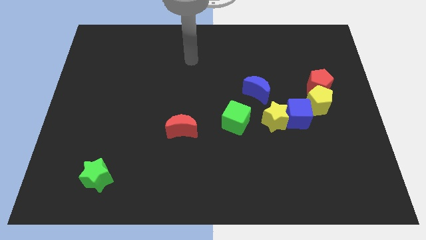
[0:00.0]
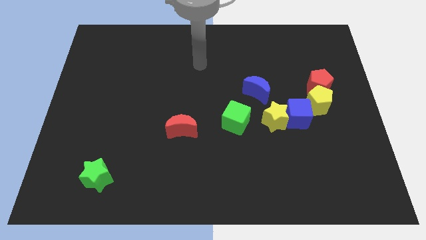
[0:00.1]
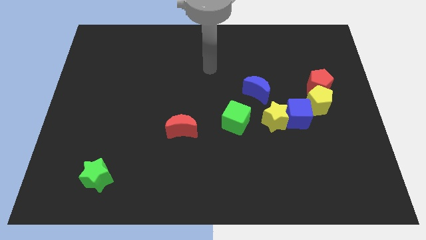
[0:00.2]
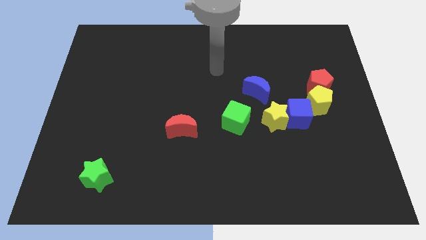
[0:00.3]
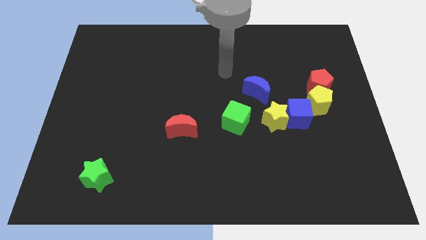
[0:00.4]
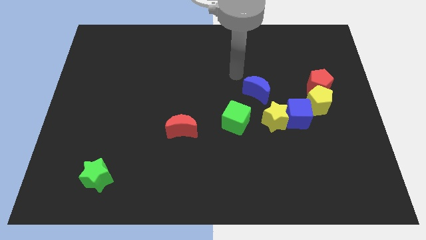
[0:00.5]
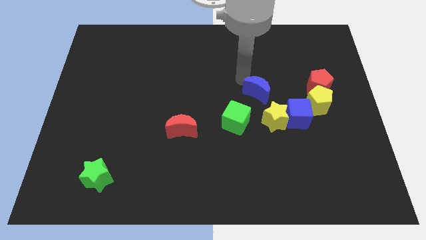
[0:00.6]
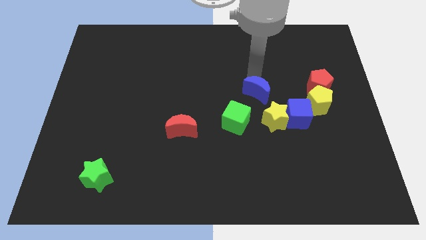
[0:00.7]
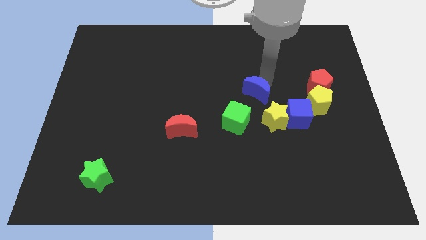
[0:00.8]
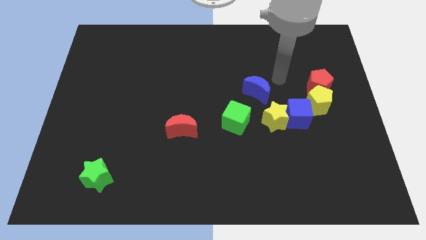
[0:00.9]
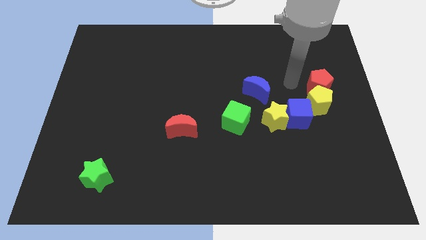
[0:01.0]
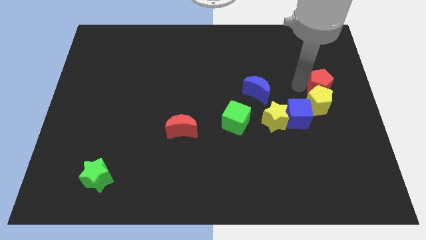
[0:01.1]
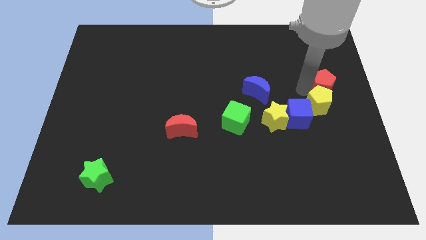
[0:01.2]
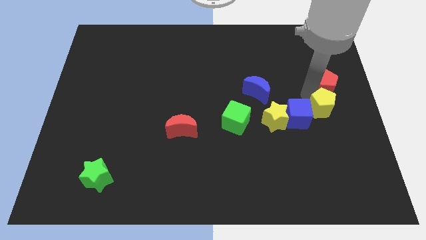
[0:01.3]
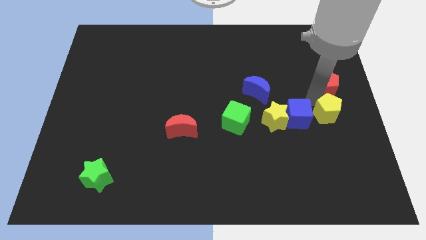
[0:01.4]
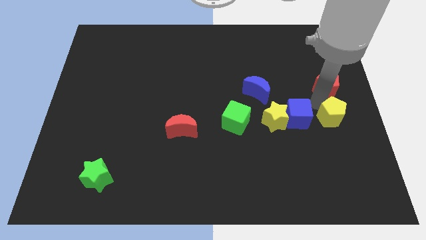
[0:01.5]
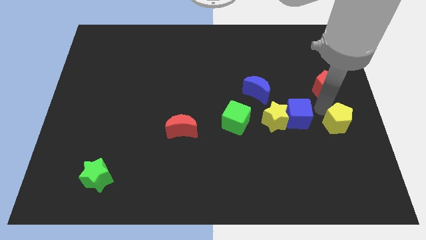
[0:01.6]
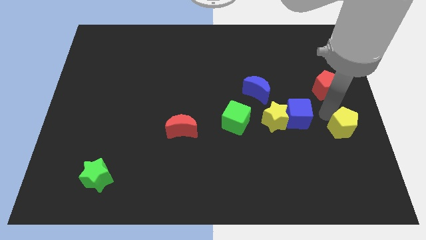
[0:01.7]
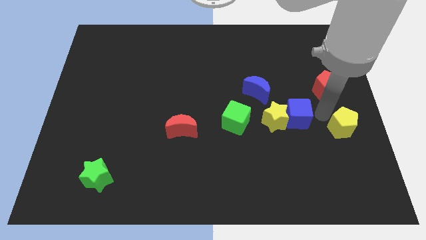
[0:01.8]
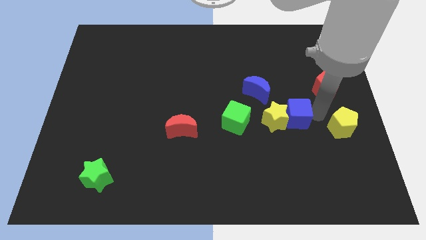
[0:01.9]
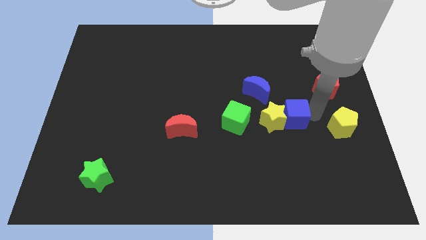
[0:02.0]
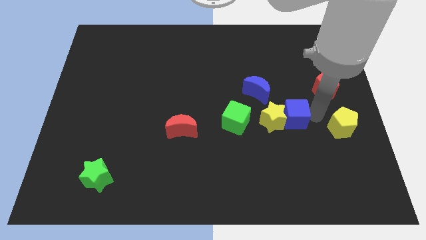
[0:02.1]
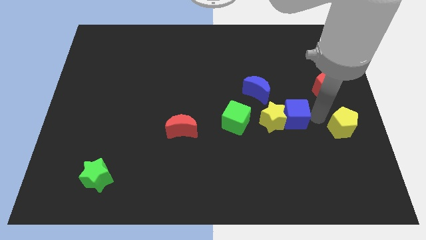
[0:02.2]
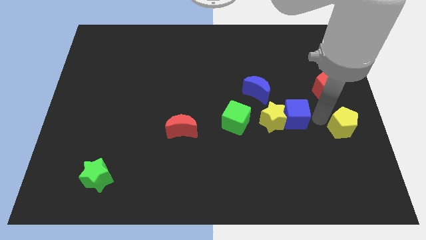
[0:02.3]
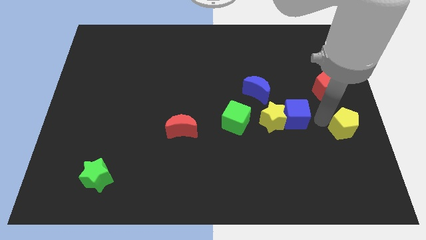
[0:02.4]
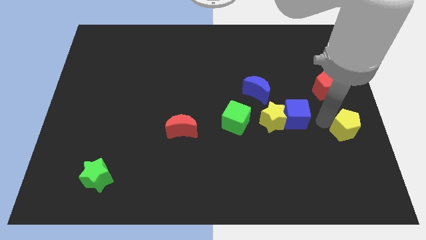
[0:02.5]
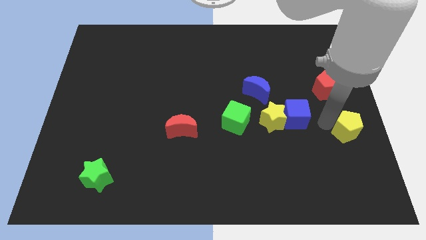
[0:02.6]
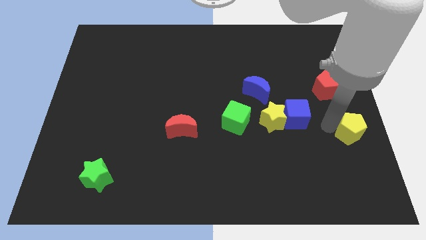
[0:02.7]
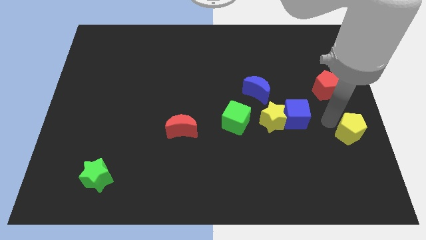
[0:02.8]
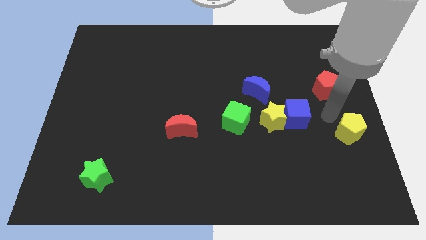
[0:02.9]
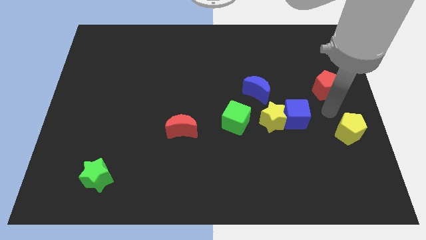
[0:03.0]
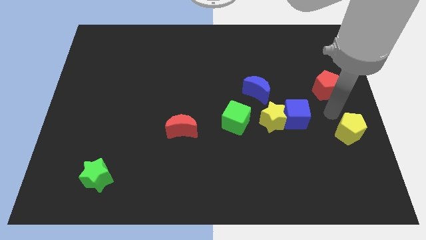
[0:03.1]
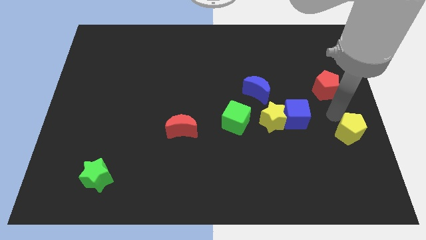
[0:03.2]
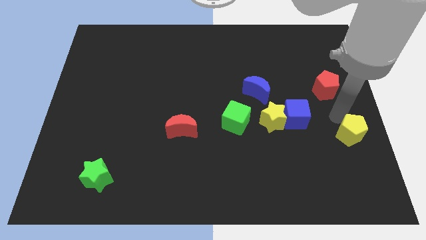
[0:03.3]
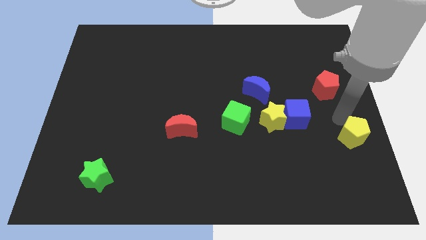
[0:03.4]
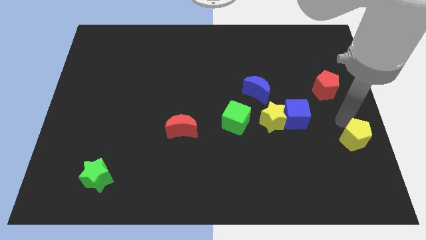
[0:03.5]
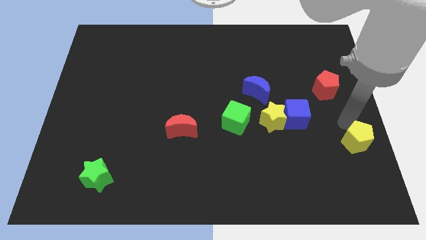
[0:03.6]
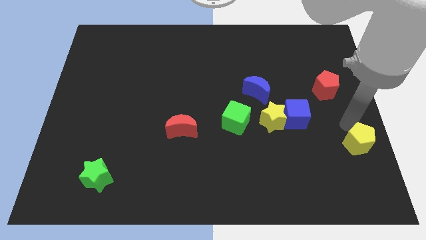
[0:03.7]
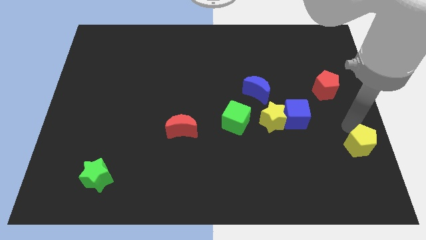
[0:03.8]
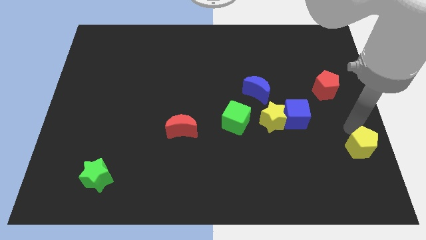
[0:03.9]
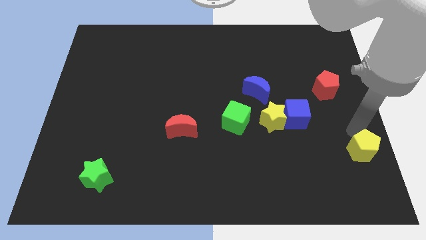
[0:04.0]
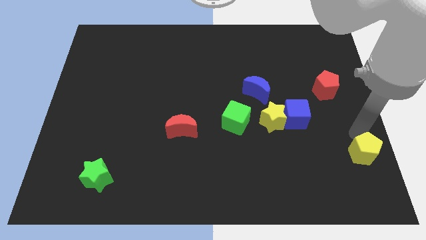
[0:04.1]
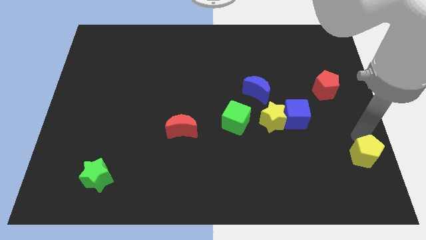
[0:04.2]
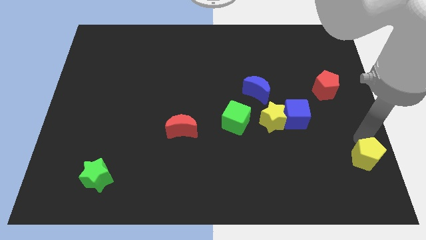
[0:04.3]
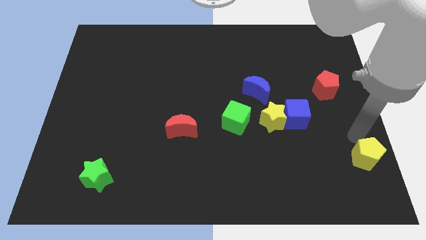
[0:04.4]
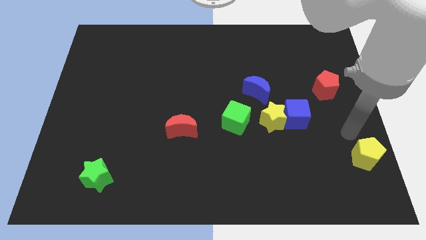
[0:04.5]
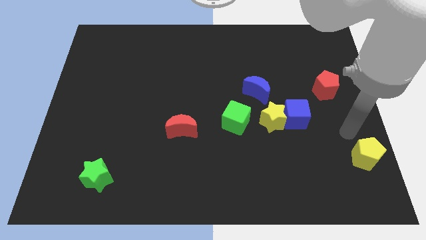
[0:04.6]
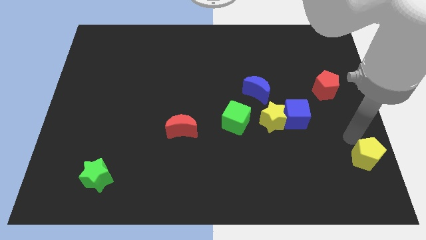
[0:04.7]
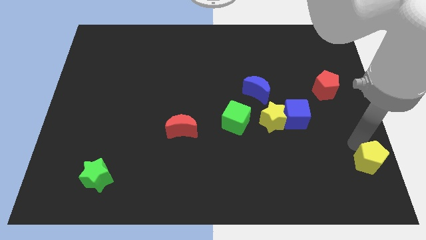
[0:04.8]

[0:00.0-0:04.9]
move the yellow pentagon to the bottom right corner
